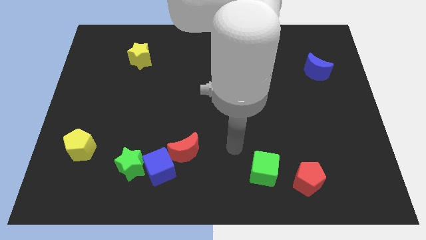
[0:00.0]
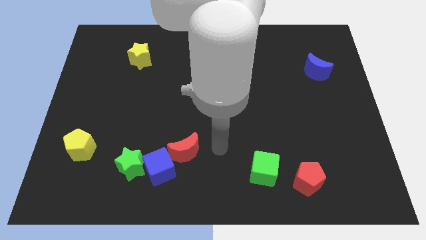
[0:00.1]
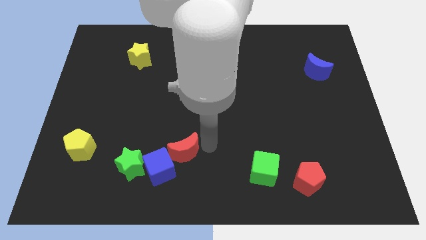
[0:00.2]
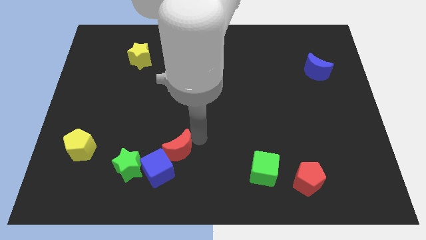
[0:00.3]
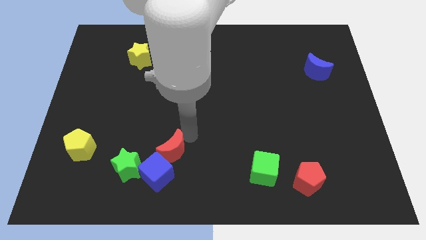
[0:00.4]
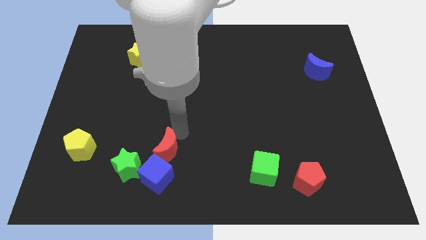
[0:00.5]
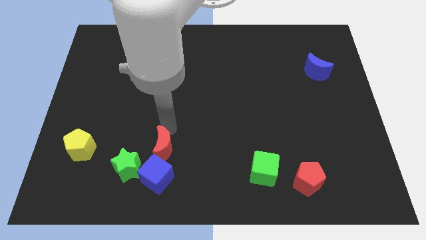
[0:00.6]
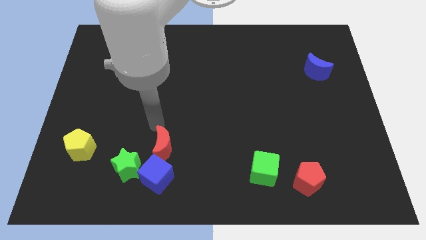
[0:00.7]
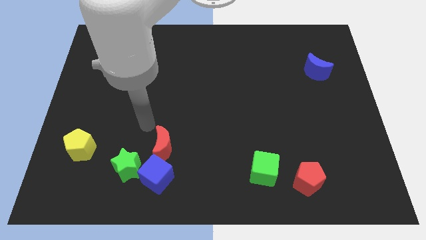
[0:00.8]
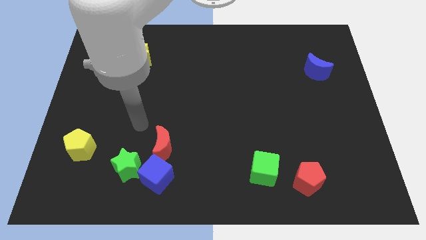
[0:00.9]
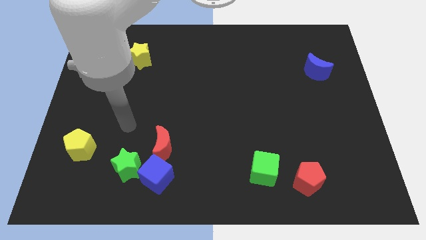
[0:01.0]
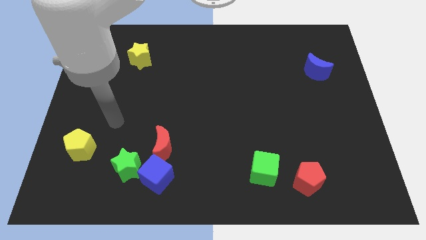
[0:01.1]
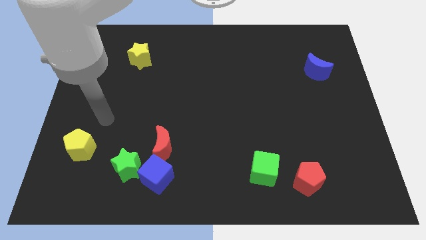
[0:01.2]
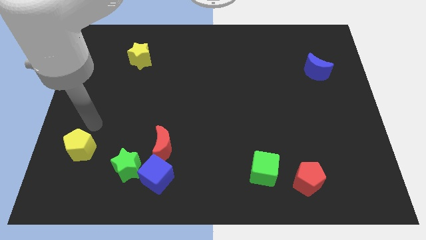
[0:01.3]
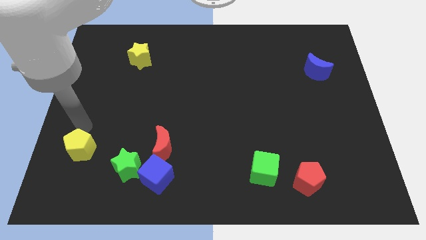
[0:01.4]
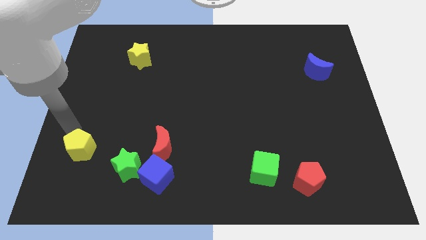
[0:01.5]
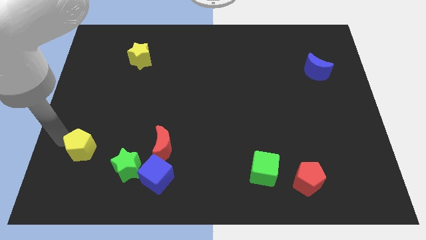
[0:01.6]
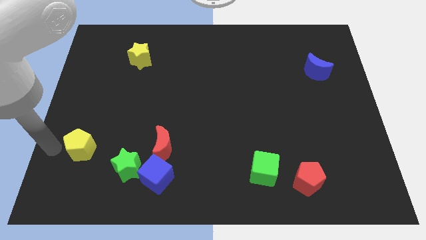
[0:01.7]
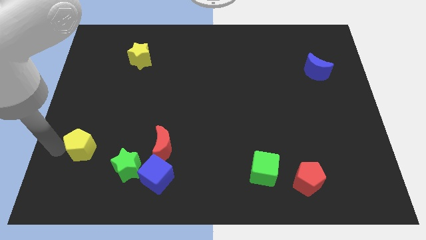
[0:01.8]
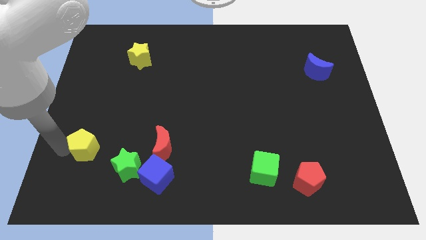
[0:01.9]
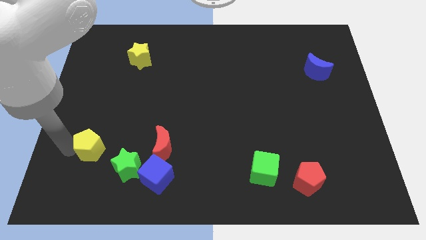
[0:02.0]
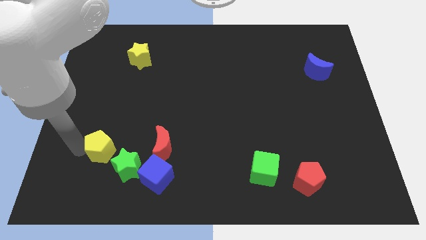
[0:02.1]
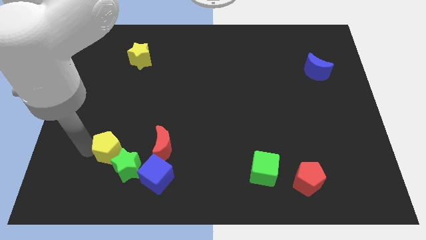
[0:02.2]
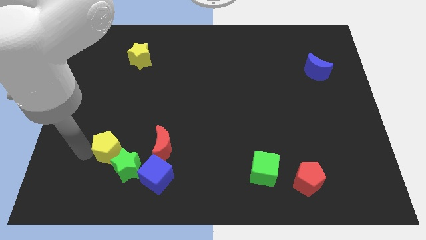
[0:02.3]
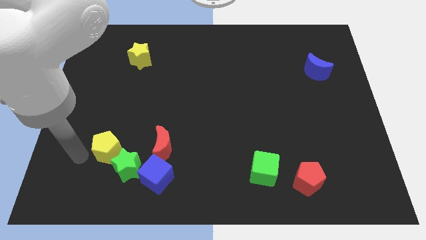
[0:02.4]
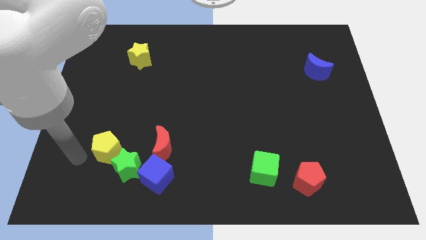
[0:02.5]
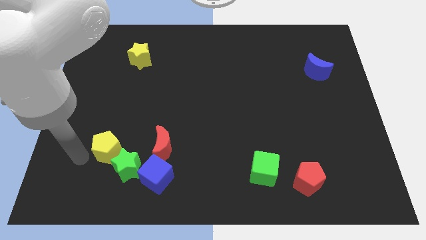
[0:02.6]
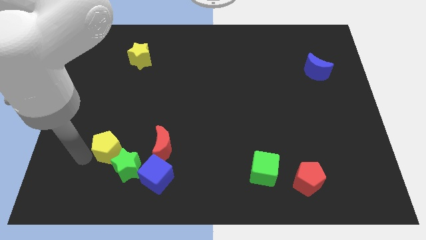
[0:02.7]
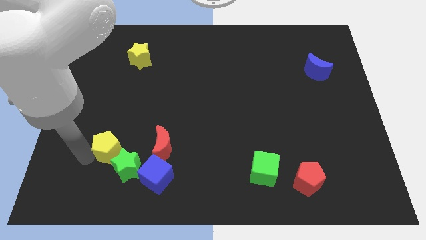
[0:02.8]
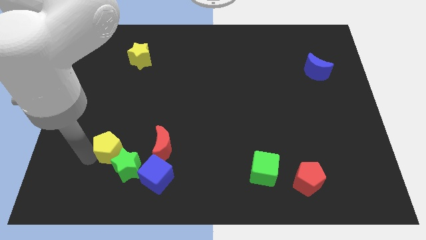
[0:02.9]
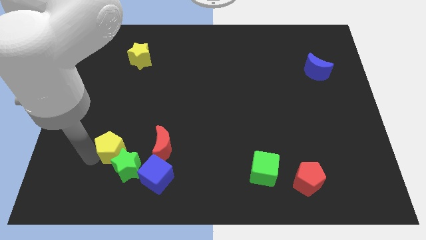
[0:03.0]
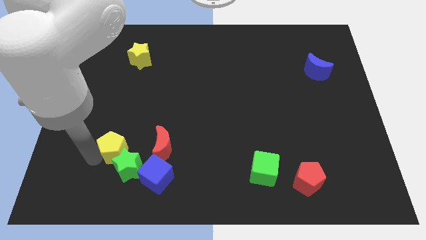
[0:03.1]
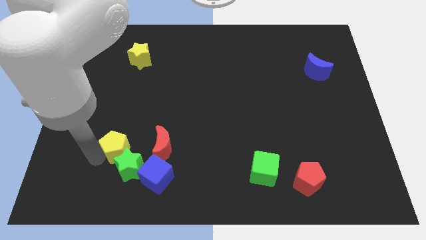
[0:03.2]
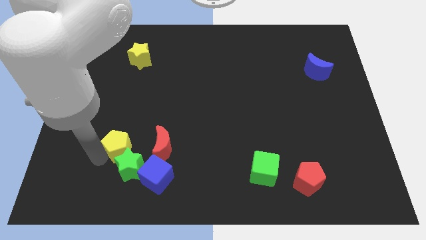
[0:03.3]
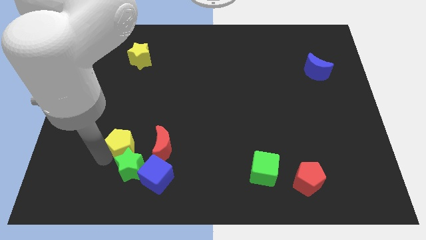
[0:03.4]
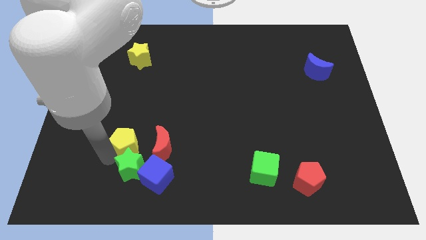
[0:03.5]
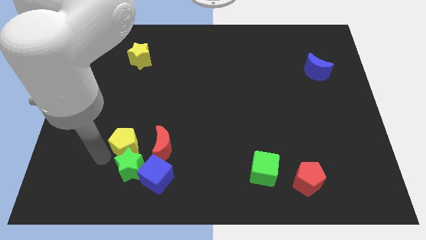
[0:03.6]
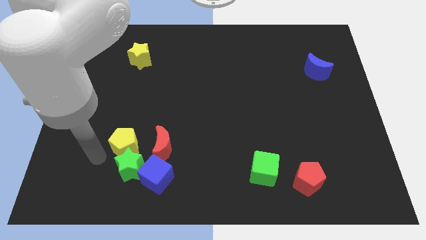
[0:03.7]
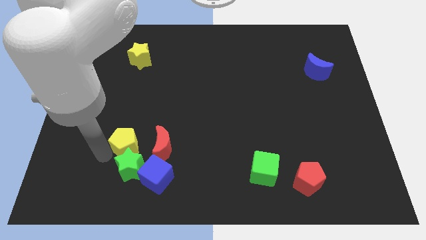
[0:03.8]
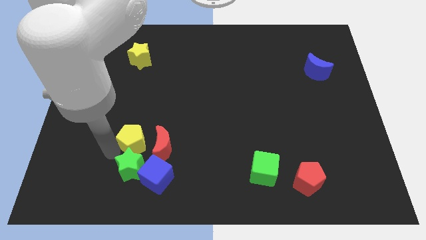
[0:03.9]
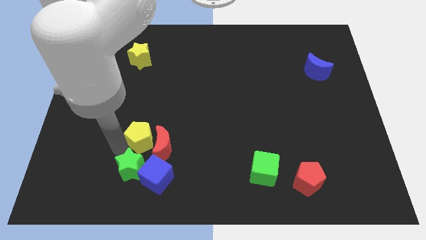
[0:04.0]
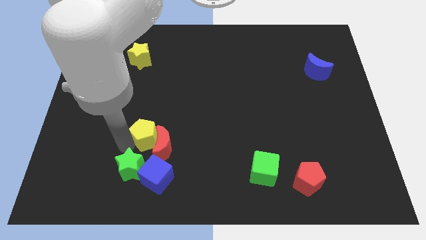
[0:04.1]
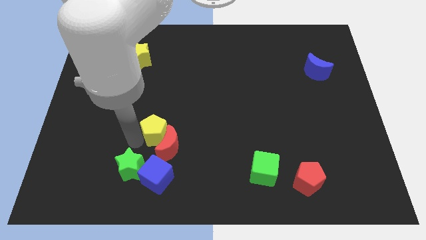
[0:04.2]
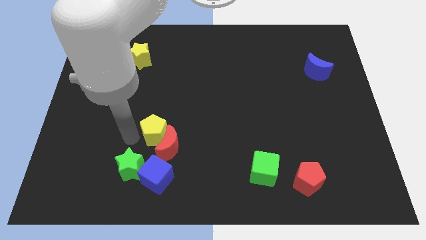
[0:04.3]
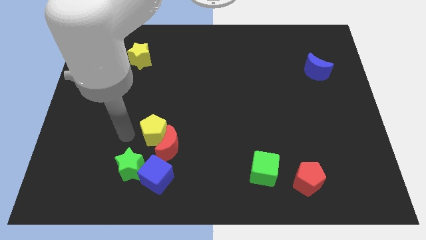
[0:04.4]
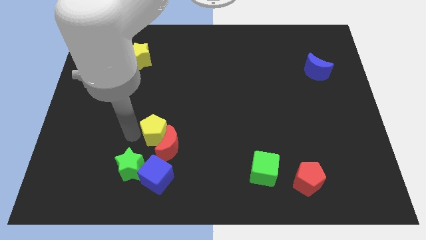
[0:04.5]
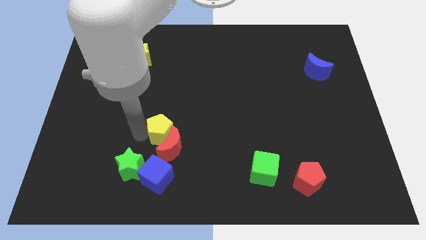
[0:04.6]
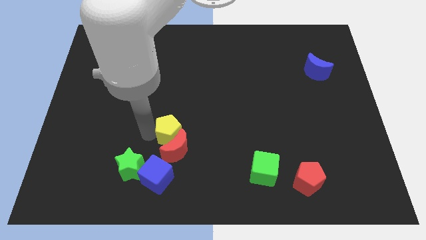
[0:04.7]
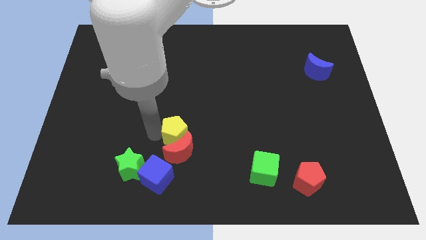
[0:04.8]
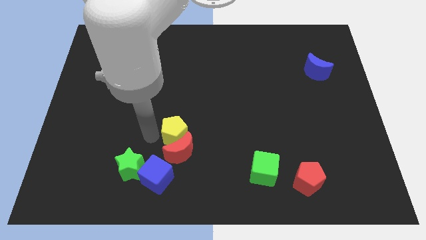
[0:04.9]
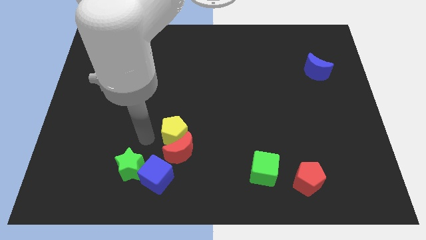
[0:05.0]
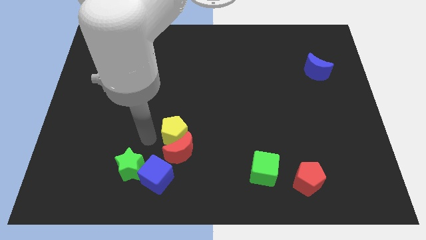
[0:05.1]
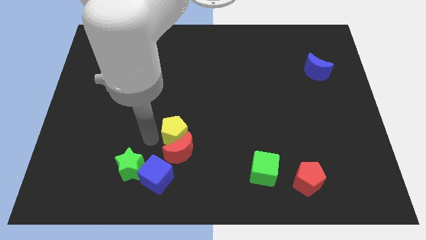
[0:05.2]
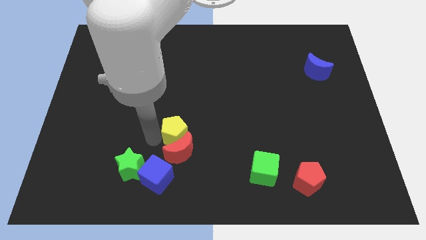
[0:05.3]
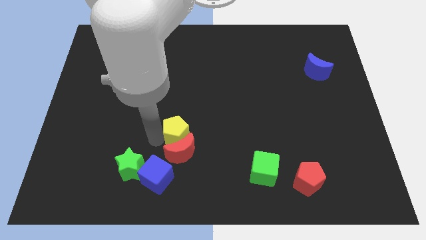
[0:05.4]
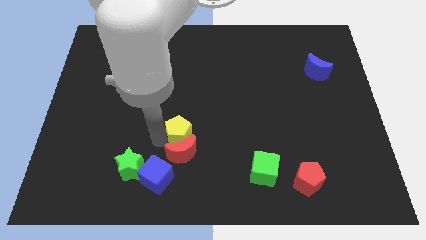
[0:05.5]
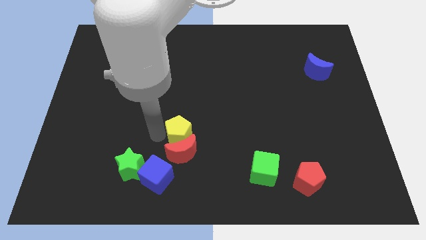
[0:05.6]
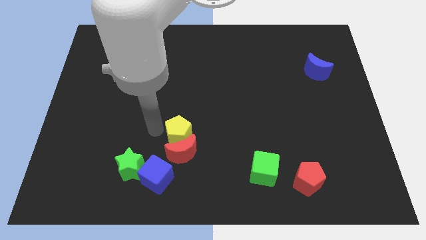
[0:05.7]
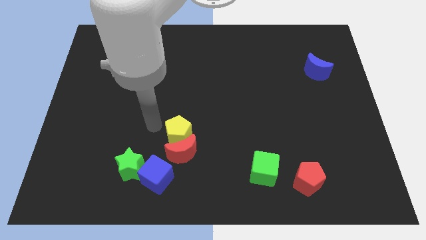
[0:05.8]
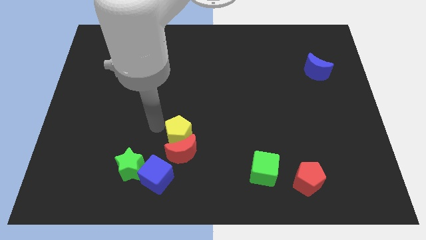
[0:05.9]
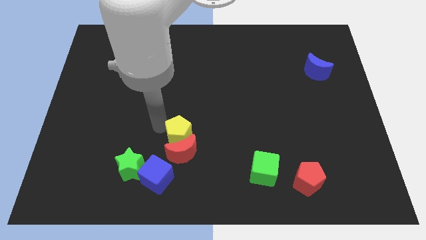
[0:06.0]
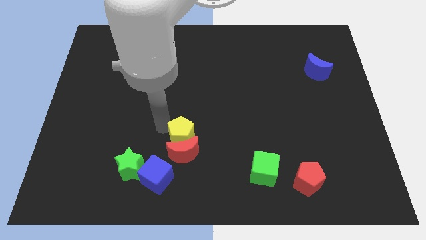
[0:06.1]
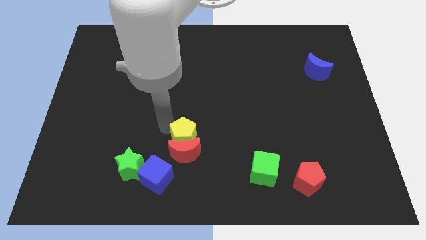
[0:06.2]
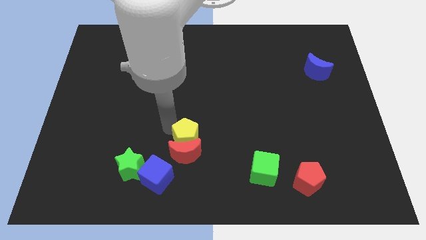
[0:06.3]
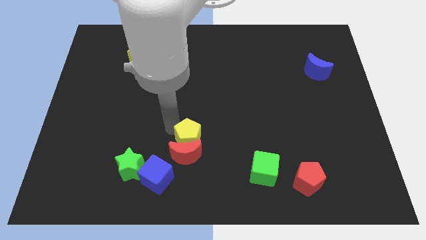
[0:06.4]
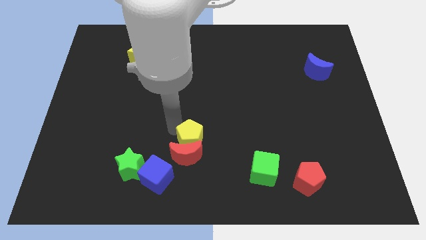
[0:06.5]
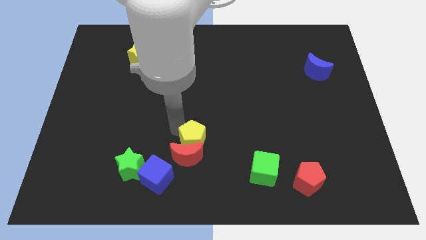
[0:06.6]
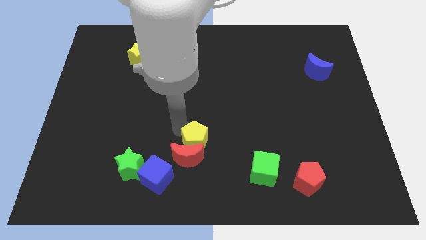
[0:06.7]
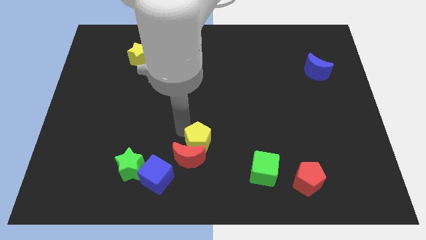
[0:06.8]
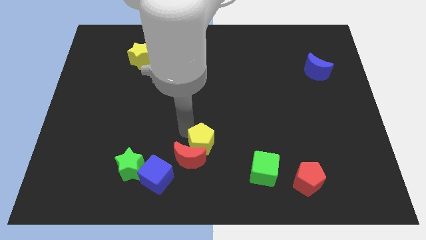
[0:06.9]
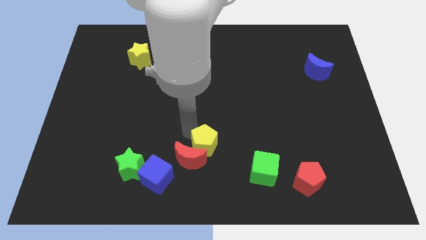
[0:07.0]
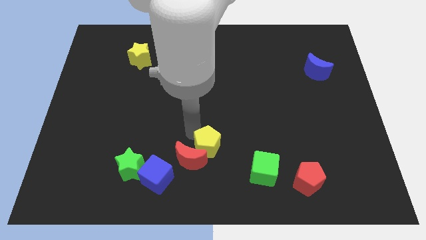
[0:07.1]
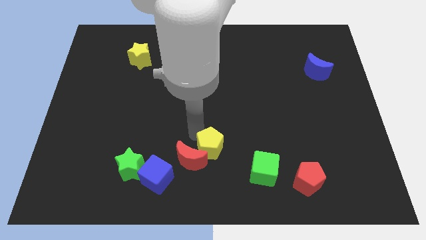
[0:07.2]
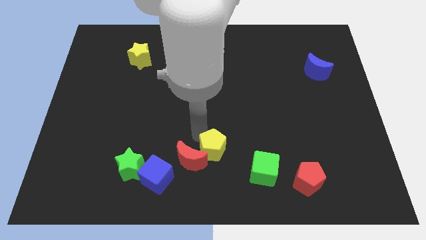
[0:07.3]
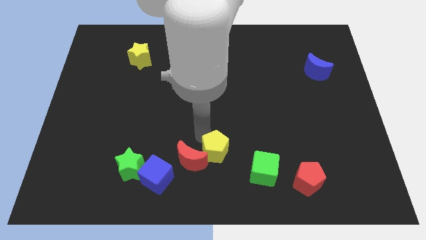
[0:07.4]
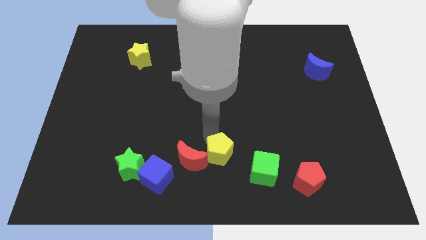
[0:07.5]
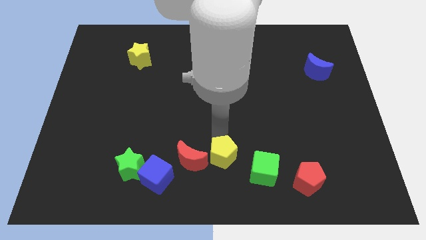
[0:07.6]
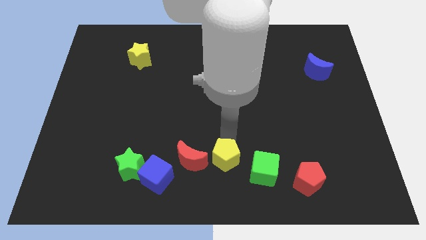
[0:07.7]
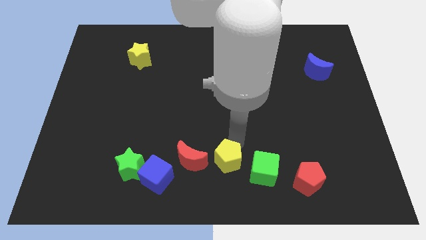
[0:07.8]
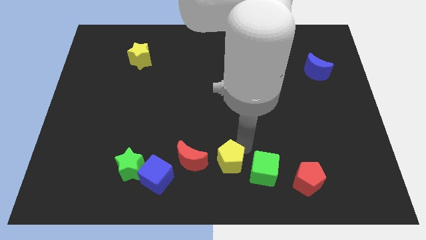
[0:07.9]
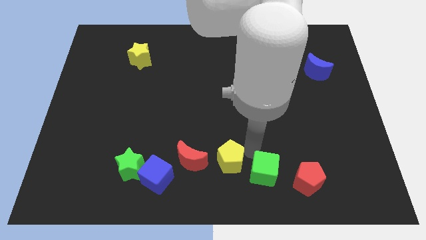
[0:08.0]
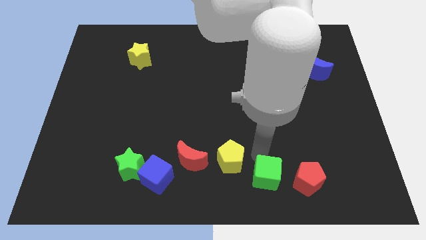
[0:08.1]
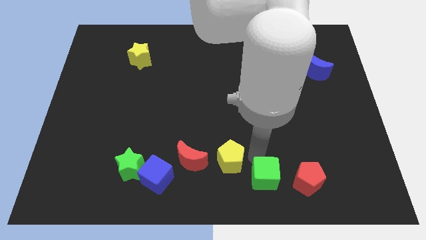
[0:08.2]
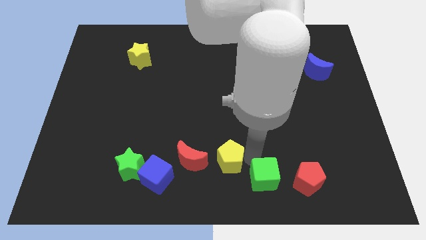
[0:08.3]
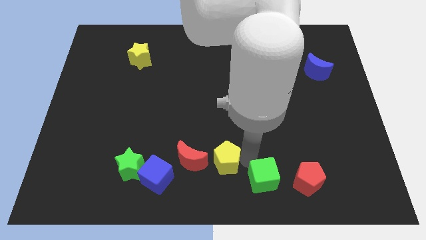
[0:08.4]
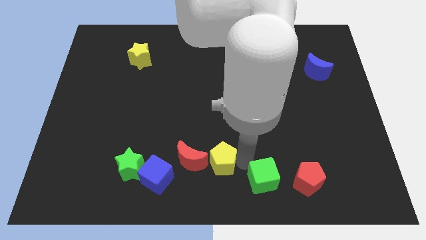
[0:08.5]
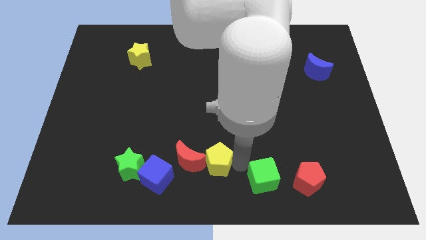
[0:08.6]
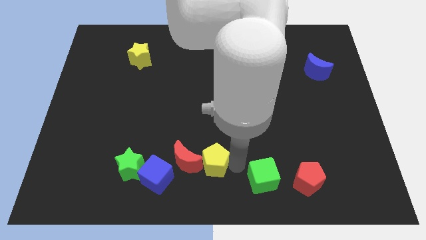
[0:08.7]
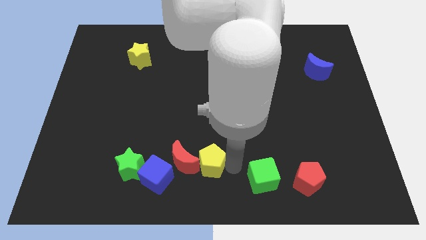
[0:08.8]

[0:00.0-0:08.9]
put the yellow pentagon to the right of the green star
